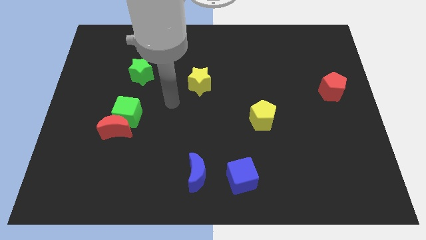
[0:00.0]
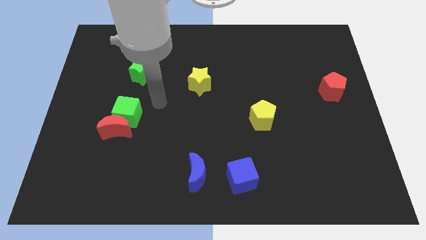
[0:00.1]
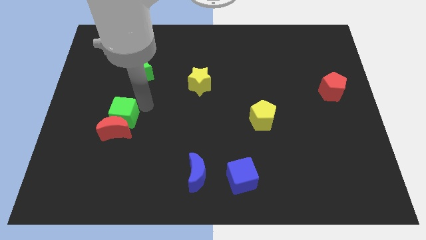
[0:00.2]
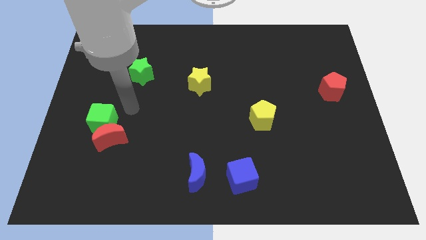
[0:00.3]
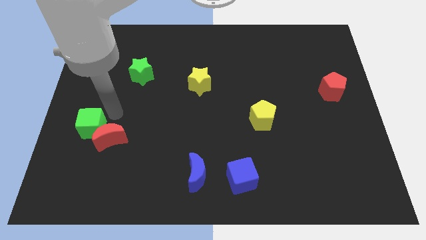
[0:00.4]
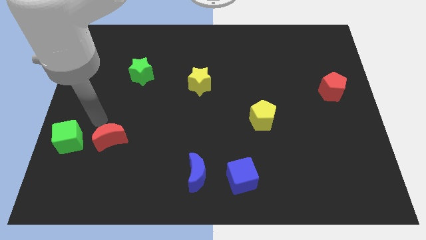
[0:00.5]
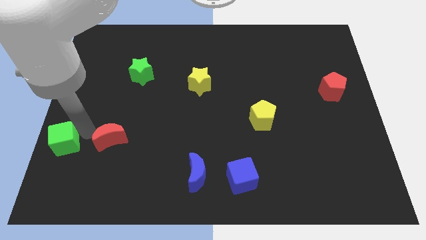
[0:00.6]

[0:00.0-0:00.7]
pull the red moon apart from the green cube

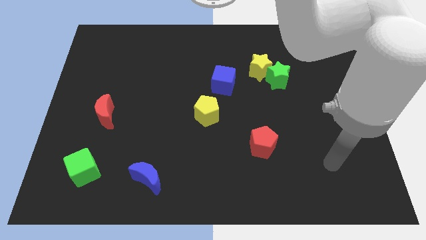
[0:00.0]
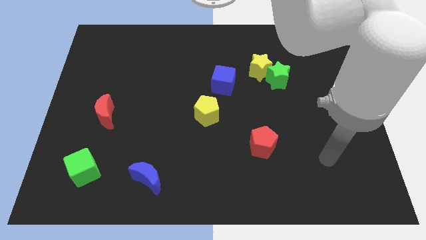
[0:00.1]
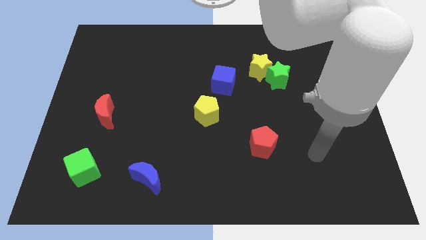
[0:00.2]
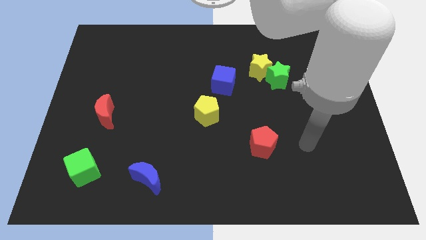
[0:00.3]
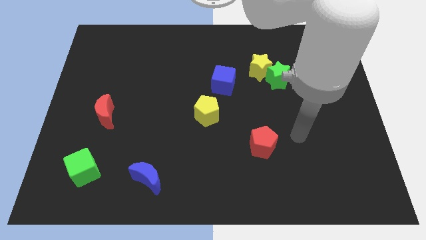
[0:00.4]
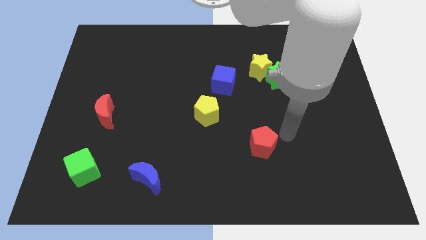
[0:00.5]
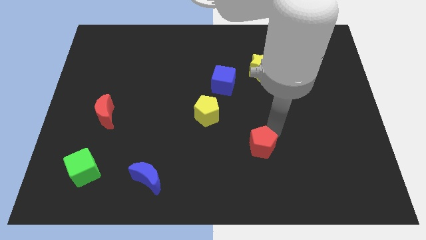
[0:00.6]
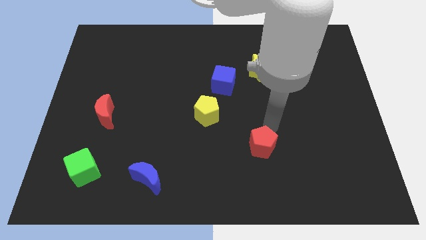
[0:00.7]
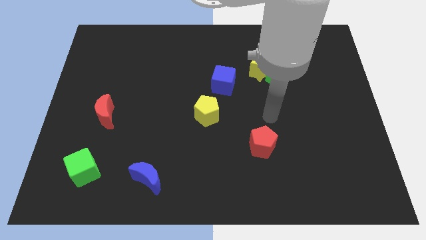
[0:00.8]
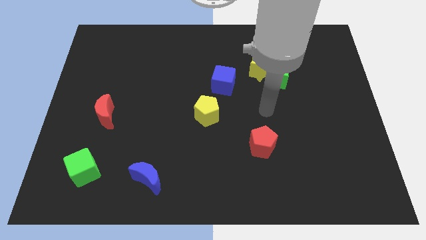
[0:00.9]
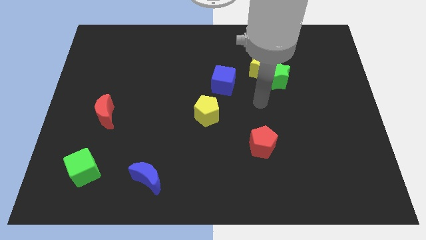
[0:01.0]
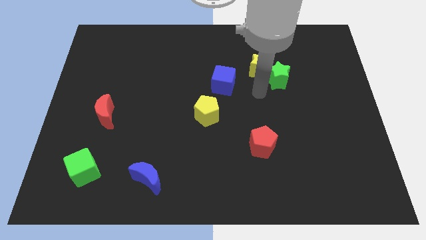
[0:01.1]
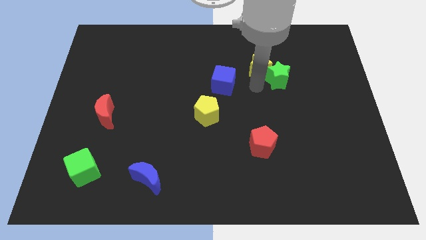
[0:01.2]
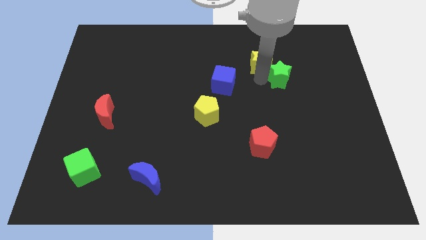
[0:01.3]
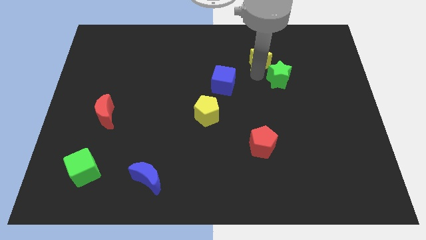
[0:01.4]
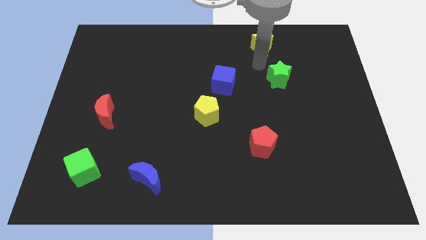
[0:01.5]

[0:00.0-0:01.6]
move the green star away from the yellow star

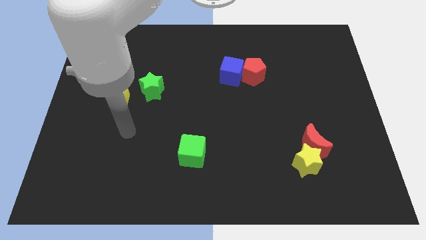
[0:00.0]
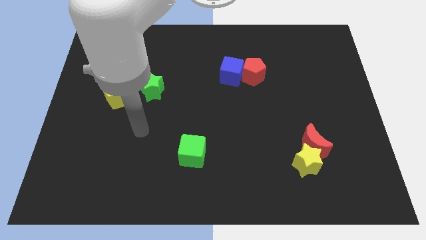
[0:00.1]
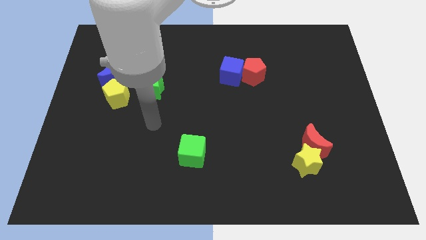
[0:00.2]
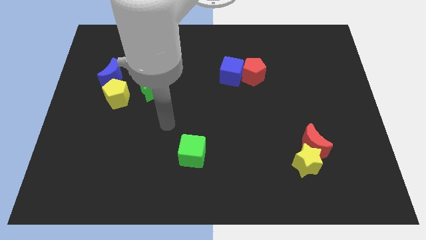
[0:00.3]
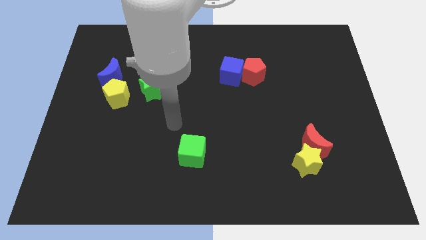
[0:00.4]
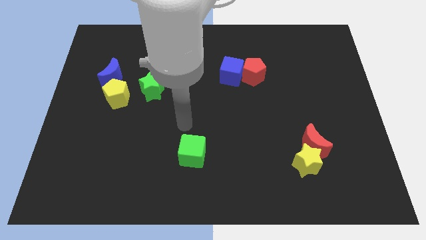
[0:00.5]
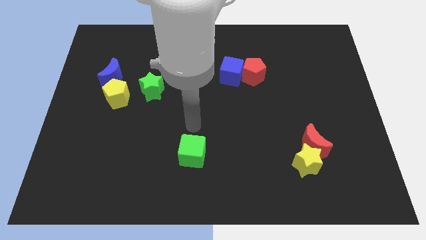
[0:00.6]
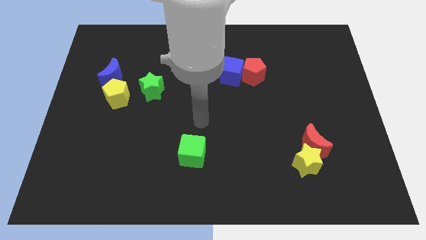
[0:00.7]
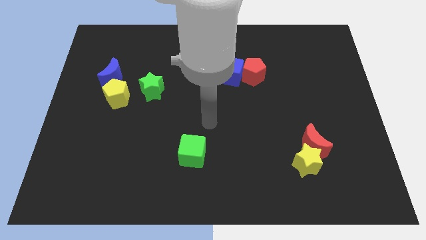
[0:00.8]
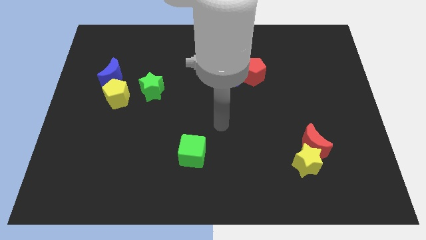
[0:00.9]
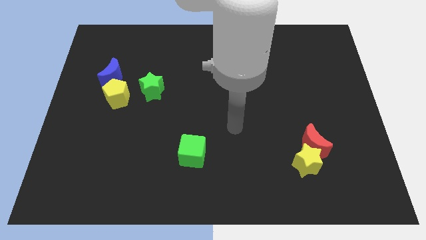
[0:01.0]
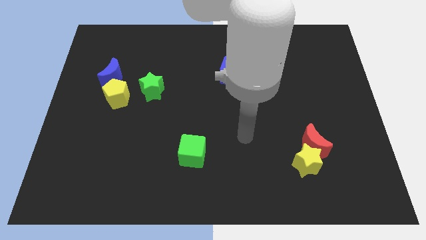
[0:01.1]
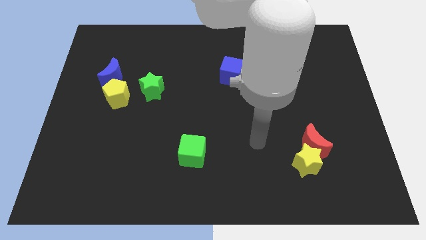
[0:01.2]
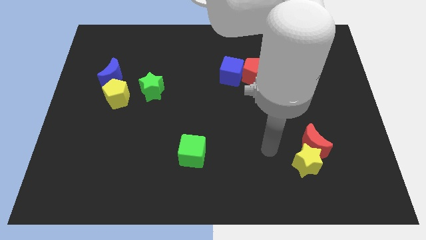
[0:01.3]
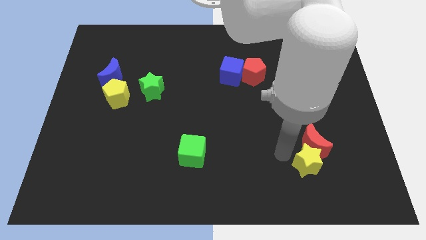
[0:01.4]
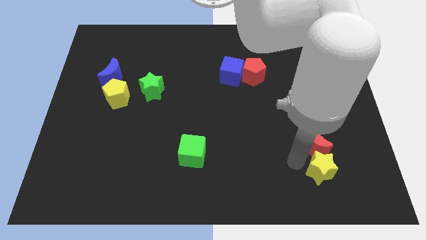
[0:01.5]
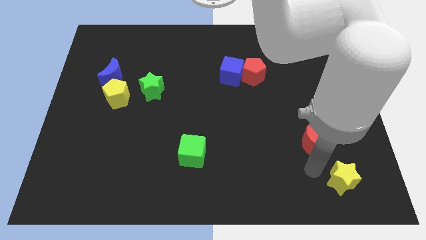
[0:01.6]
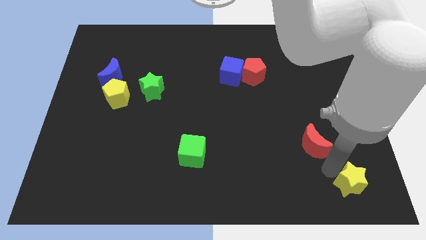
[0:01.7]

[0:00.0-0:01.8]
separate the red moon from the yellow star

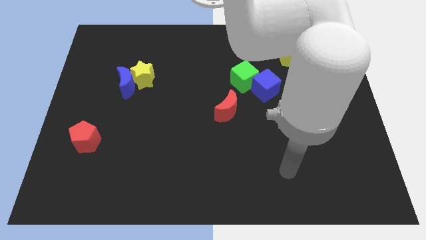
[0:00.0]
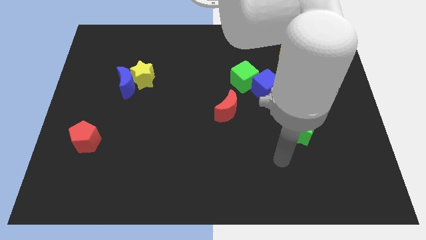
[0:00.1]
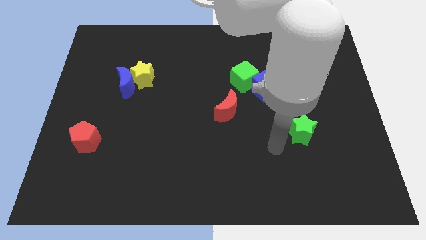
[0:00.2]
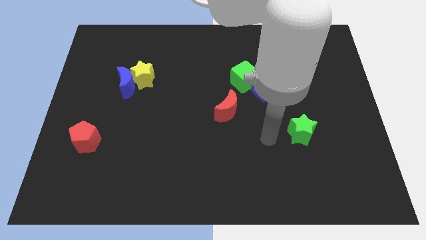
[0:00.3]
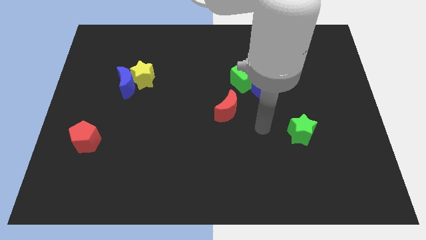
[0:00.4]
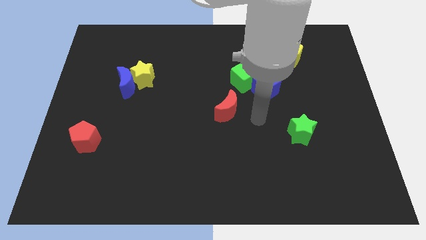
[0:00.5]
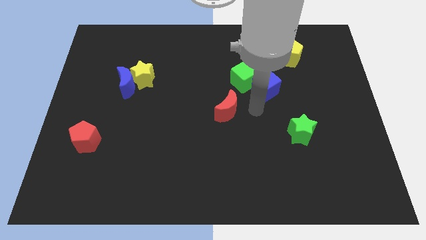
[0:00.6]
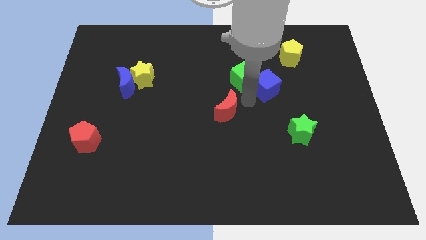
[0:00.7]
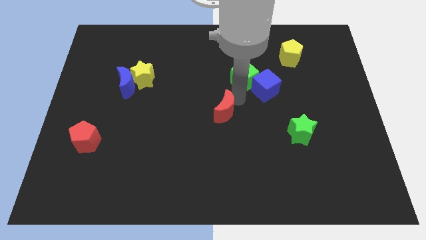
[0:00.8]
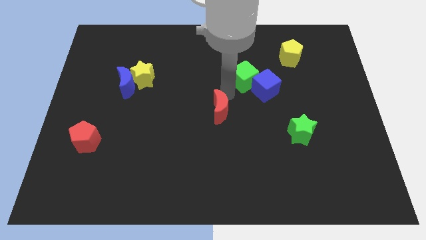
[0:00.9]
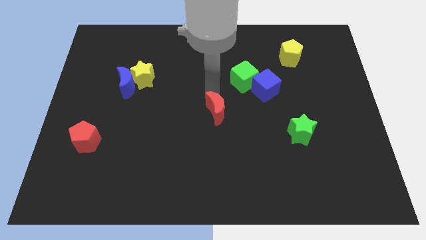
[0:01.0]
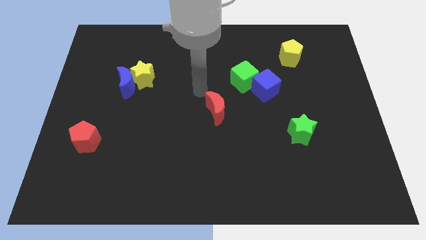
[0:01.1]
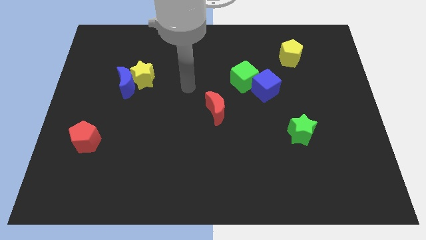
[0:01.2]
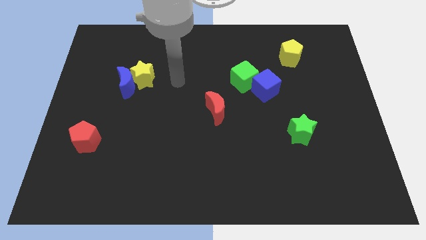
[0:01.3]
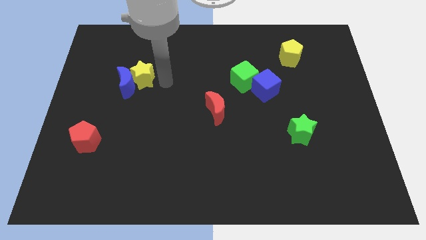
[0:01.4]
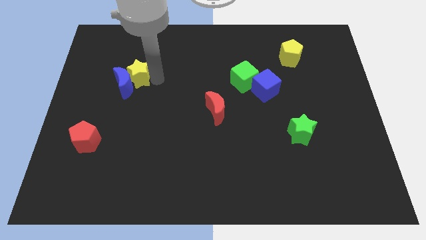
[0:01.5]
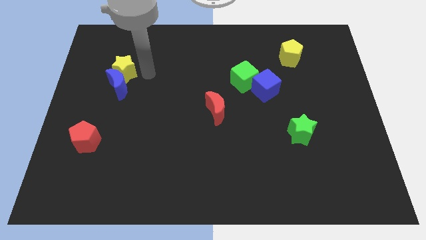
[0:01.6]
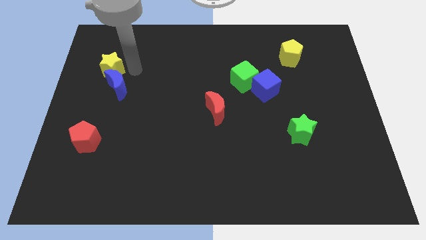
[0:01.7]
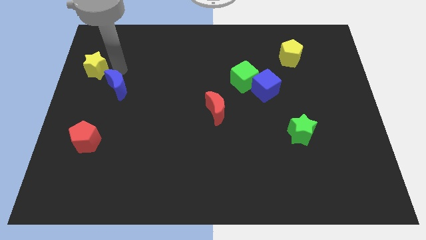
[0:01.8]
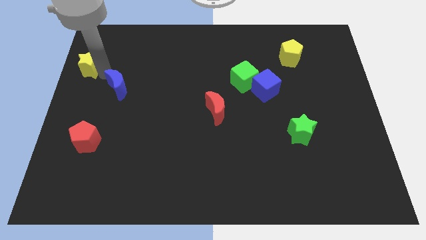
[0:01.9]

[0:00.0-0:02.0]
separate the blue moon from the yellow star

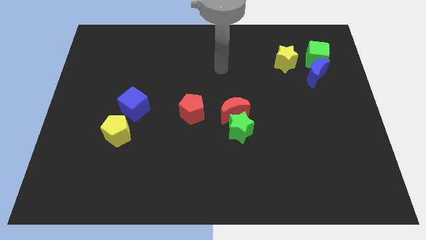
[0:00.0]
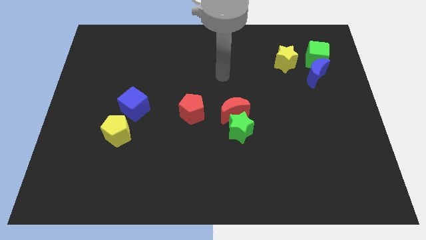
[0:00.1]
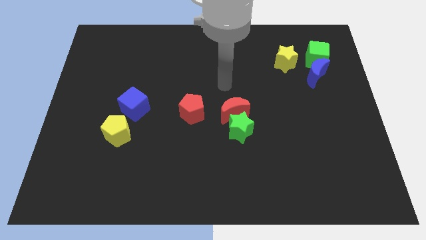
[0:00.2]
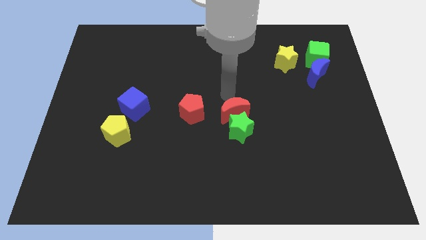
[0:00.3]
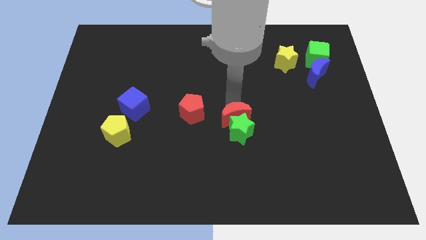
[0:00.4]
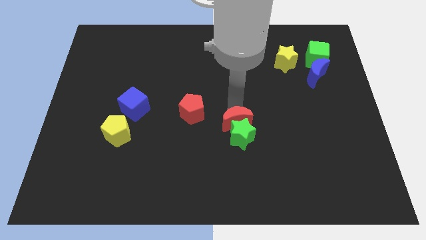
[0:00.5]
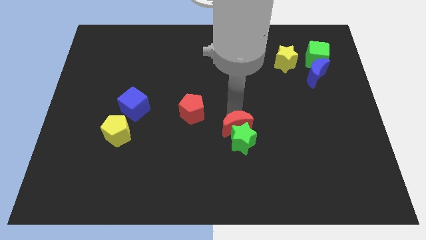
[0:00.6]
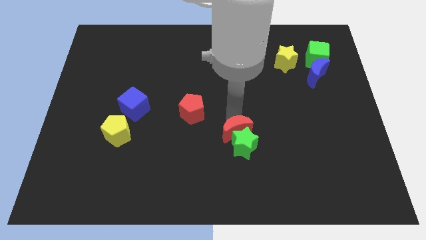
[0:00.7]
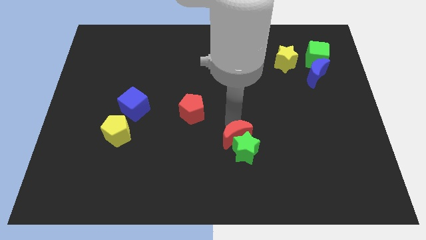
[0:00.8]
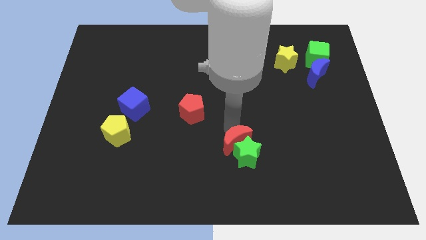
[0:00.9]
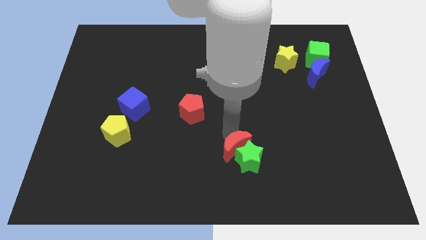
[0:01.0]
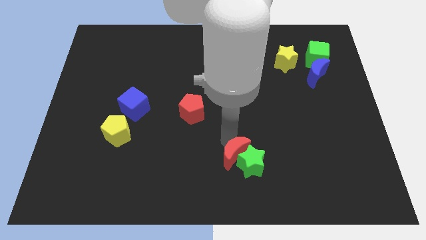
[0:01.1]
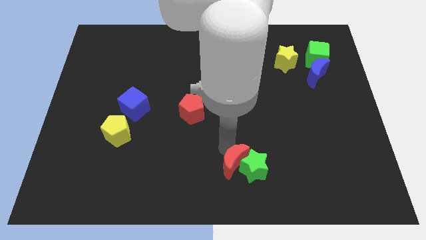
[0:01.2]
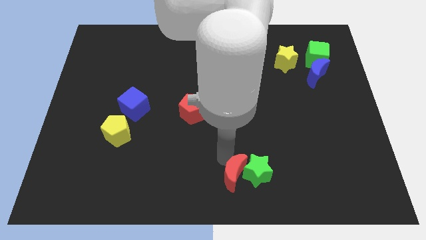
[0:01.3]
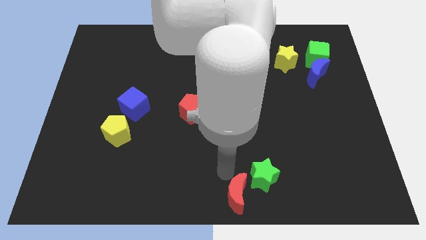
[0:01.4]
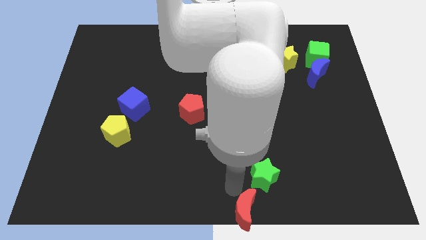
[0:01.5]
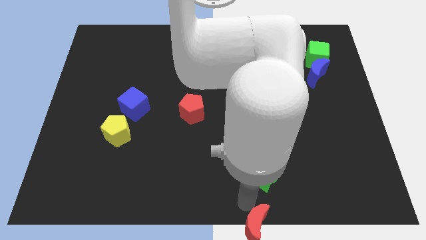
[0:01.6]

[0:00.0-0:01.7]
pull the green star apart from the red moon

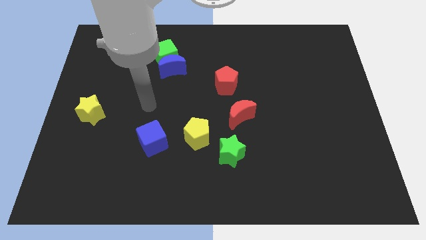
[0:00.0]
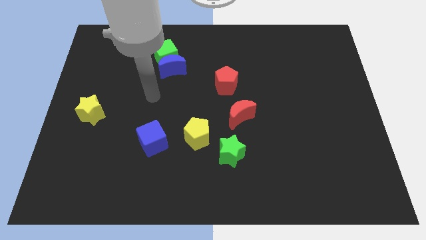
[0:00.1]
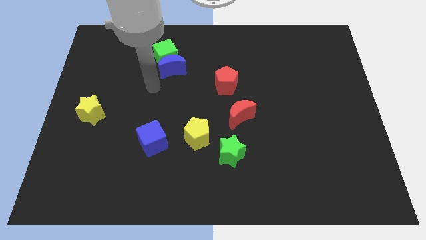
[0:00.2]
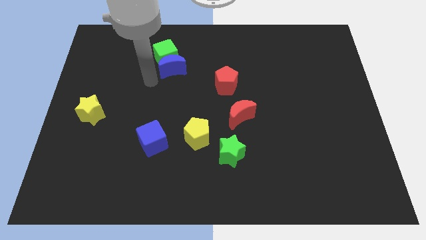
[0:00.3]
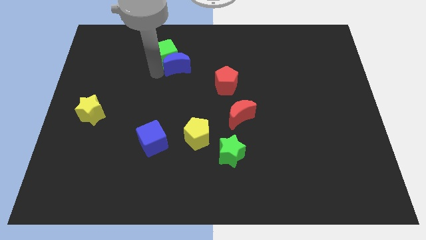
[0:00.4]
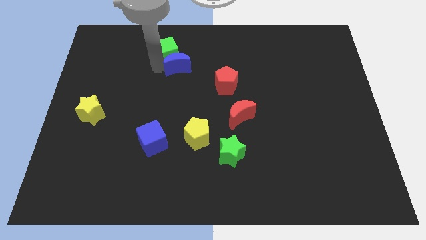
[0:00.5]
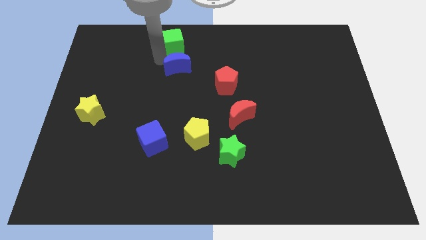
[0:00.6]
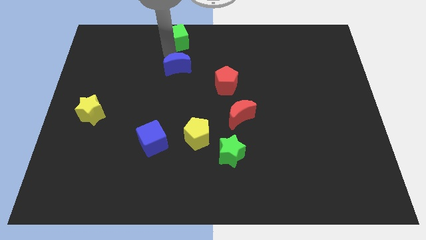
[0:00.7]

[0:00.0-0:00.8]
move the blue moon away from the green cube

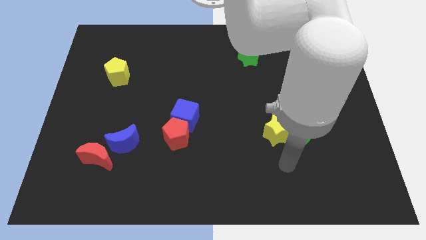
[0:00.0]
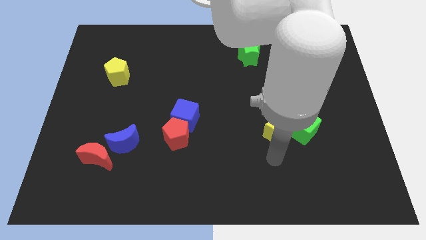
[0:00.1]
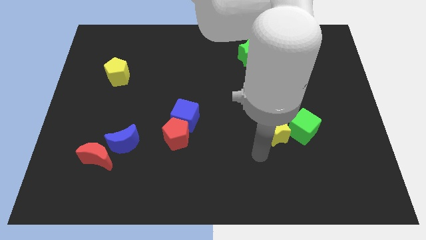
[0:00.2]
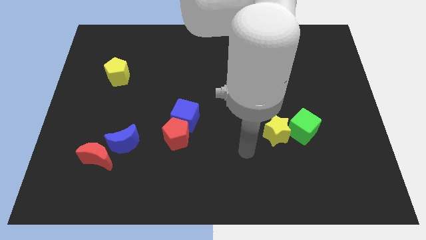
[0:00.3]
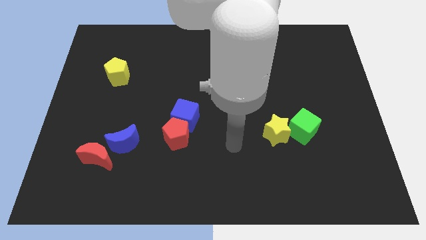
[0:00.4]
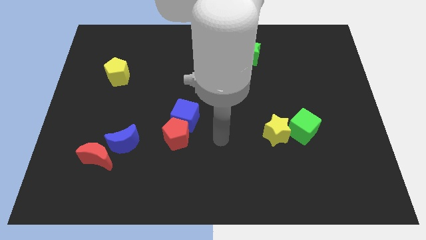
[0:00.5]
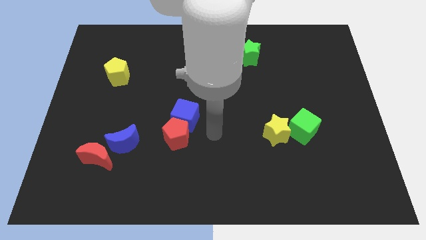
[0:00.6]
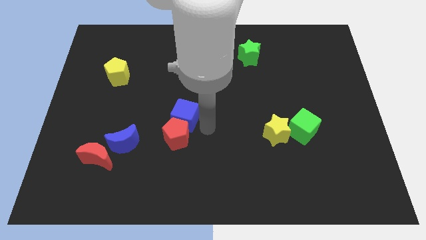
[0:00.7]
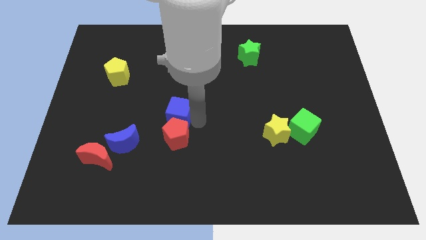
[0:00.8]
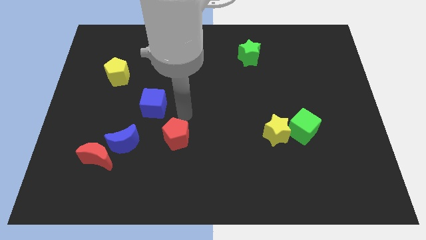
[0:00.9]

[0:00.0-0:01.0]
pull the red pentagon apart from the blue cube
